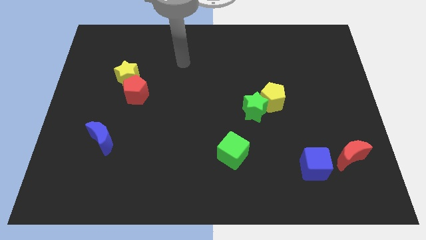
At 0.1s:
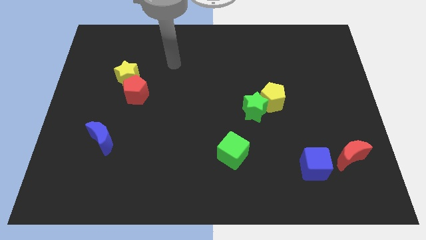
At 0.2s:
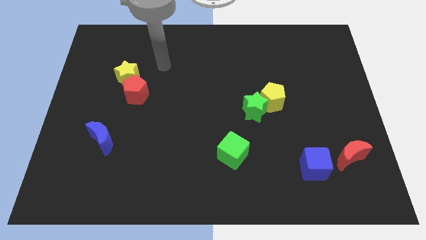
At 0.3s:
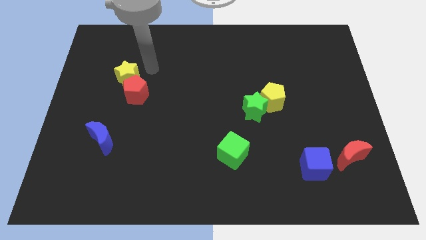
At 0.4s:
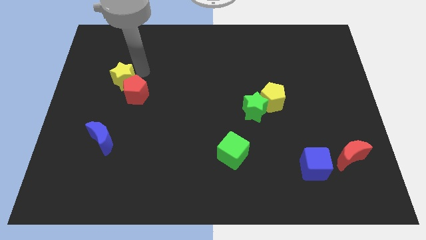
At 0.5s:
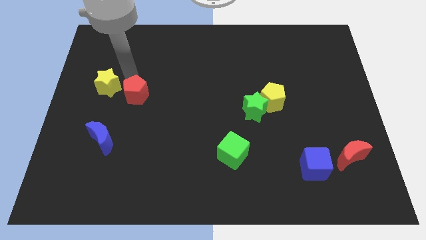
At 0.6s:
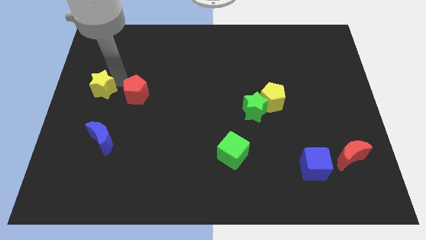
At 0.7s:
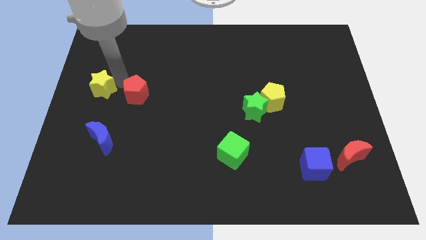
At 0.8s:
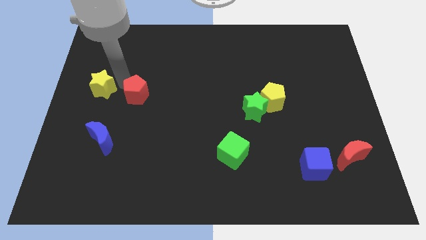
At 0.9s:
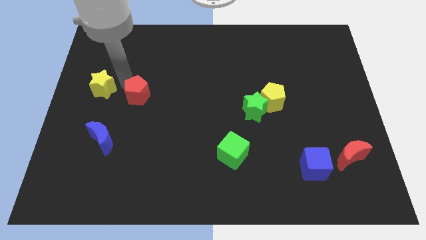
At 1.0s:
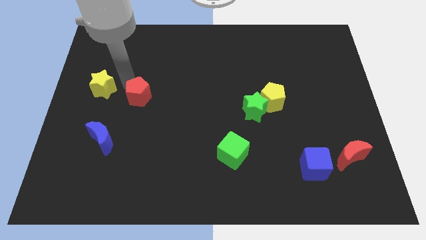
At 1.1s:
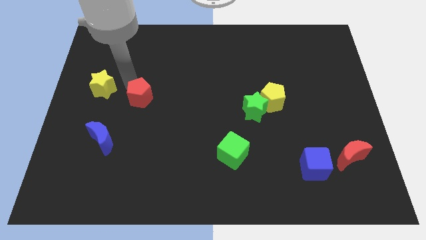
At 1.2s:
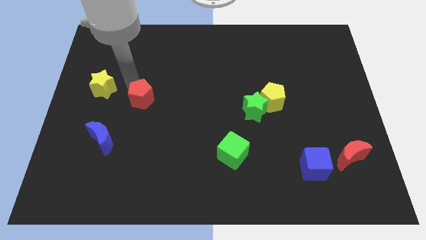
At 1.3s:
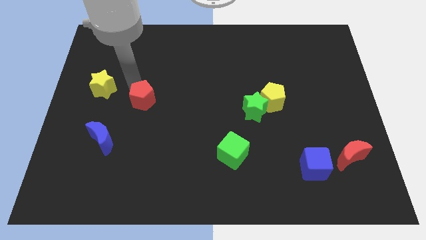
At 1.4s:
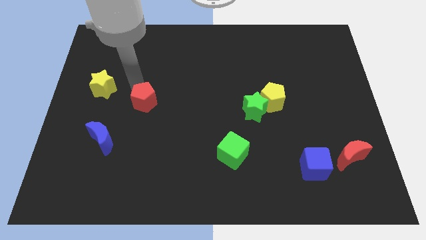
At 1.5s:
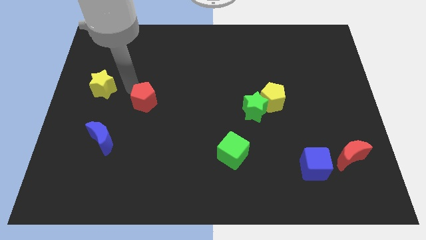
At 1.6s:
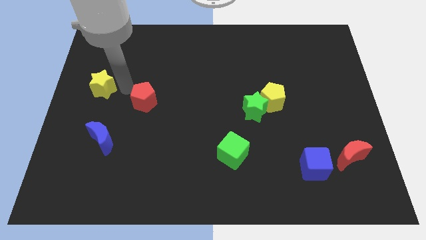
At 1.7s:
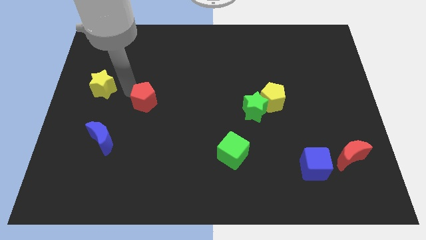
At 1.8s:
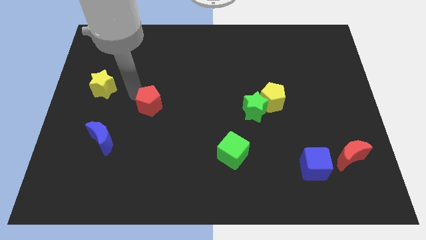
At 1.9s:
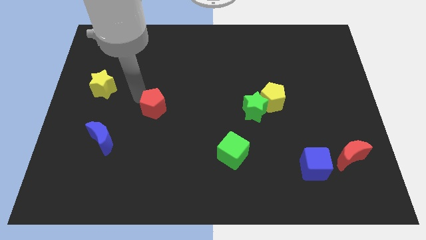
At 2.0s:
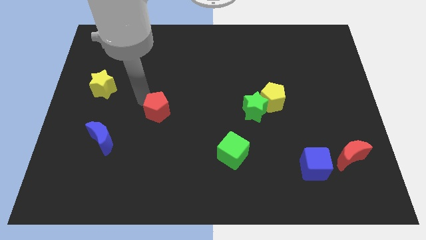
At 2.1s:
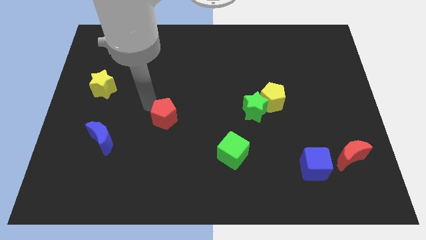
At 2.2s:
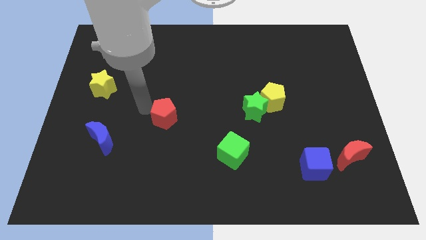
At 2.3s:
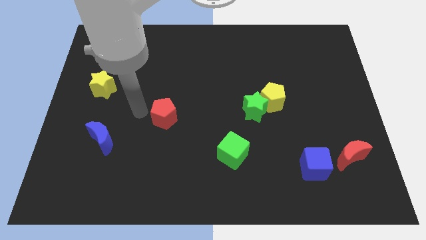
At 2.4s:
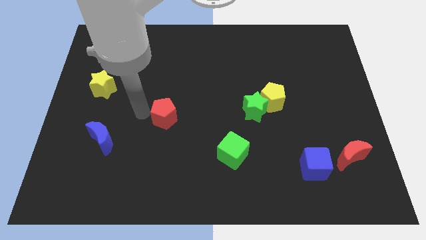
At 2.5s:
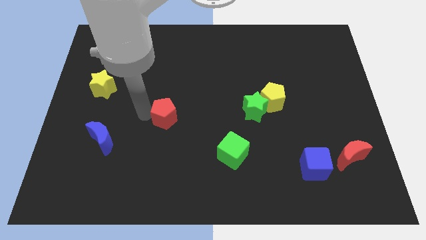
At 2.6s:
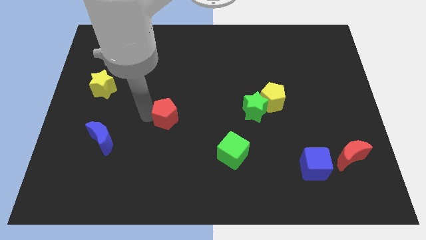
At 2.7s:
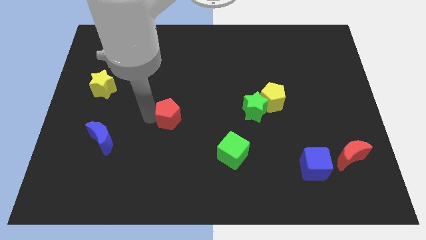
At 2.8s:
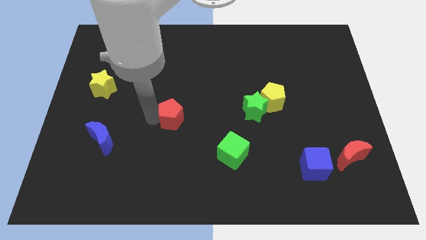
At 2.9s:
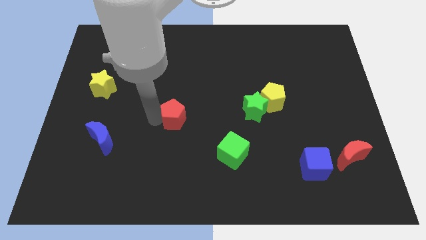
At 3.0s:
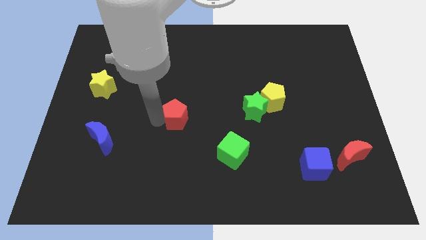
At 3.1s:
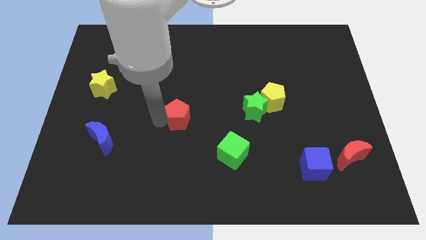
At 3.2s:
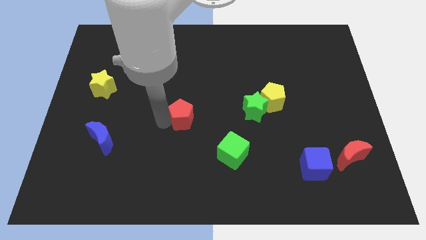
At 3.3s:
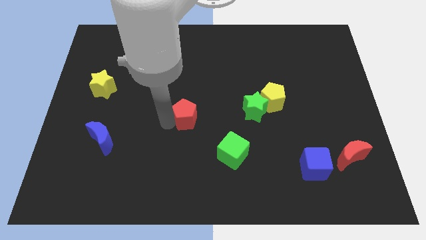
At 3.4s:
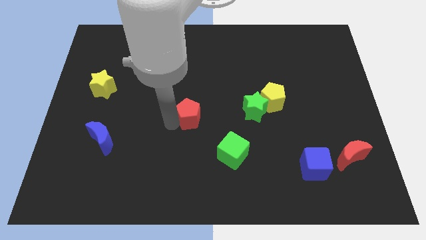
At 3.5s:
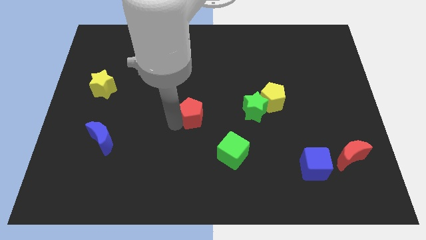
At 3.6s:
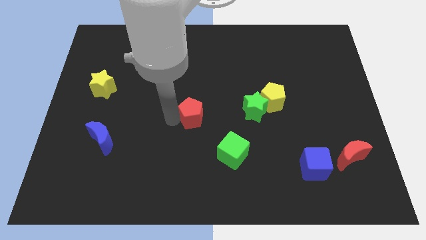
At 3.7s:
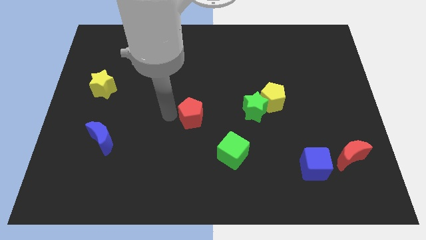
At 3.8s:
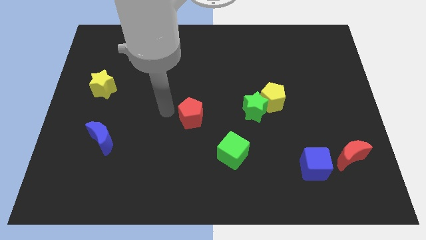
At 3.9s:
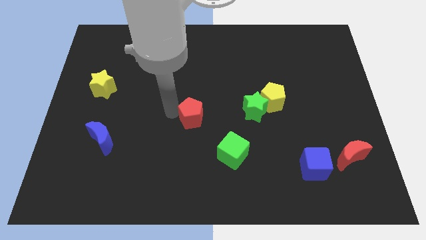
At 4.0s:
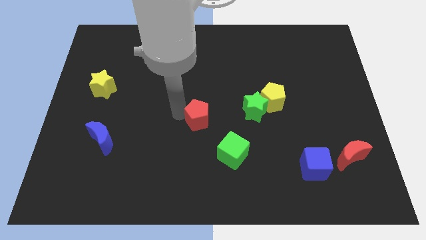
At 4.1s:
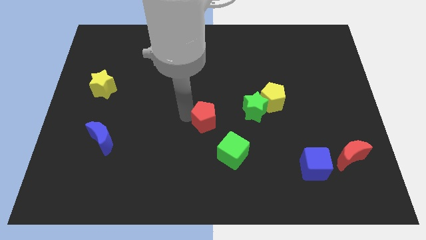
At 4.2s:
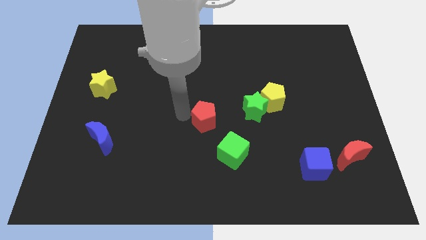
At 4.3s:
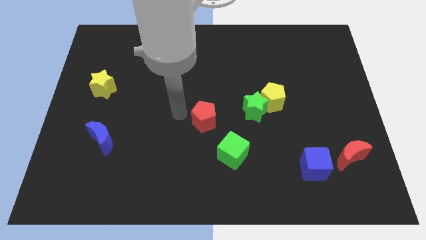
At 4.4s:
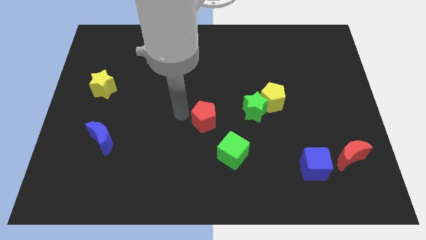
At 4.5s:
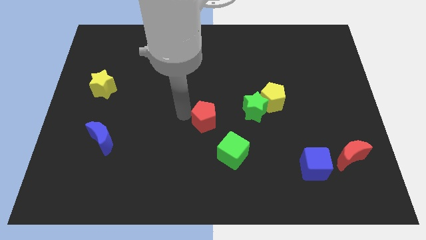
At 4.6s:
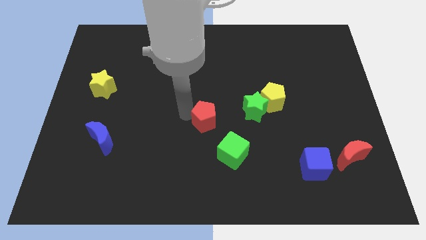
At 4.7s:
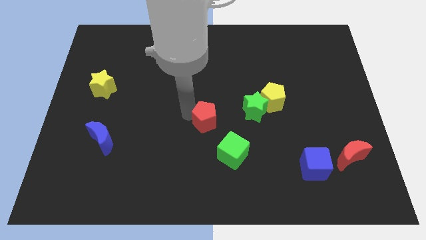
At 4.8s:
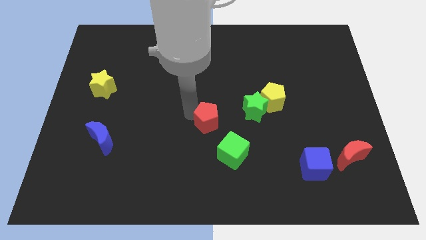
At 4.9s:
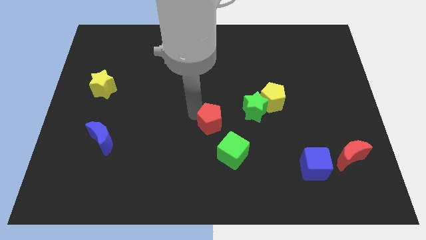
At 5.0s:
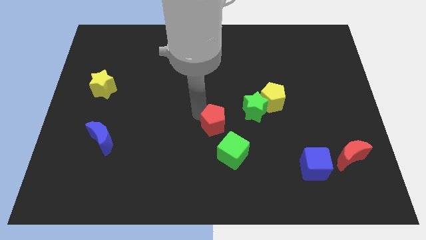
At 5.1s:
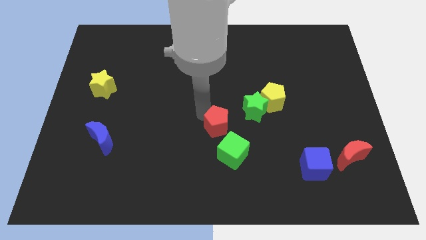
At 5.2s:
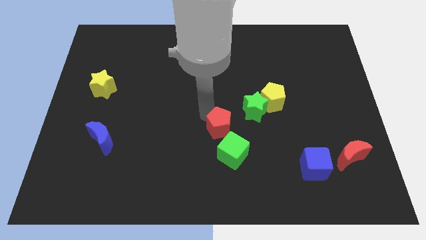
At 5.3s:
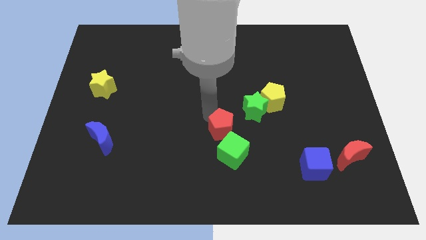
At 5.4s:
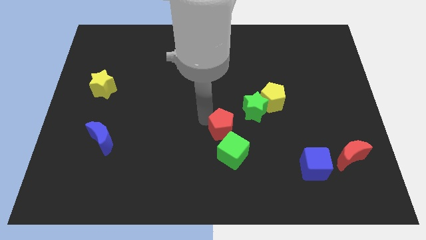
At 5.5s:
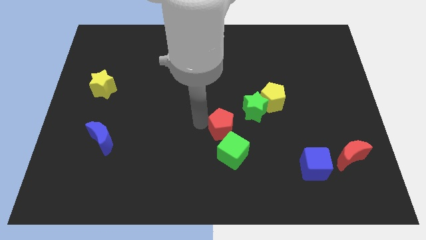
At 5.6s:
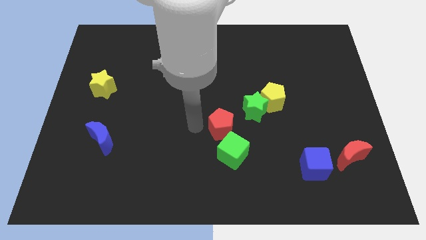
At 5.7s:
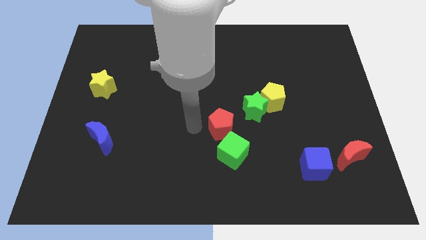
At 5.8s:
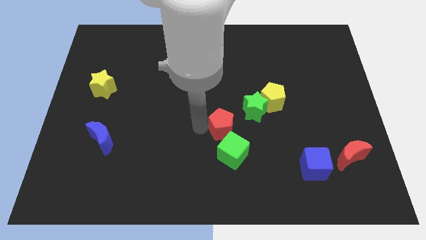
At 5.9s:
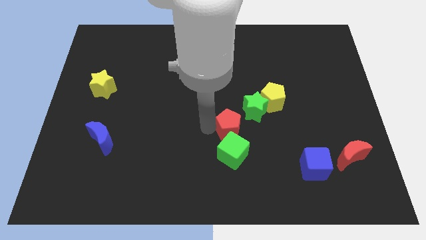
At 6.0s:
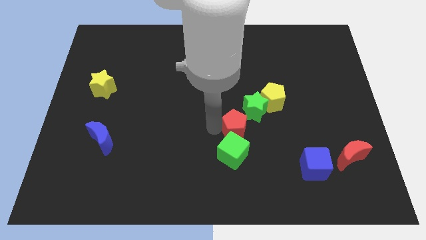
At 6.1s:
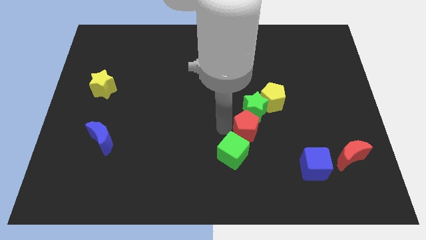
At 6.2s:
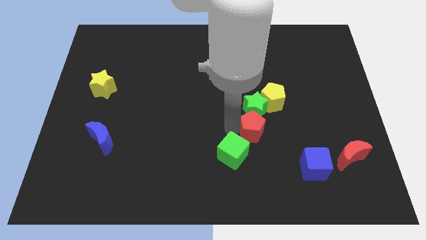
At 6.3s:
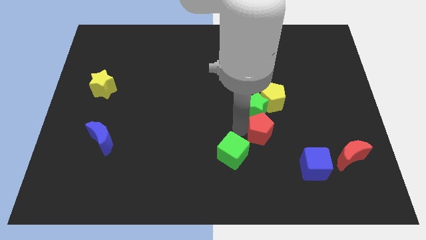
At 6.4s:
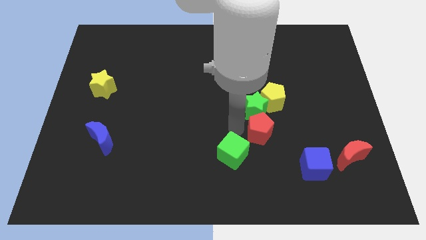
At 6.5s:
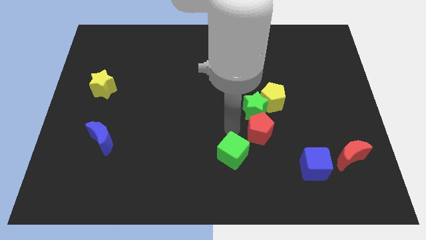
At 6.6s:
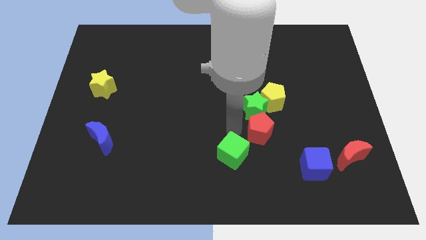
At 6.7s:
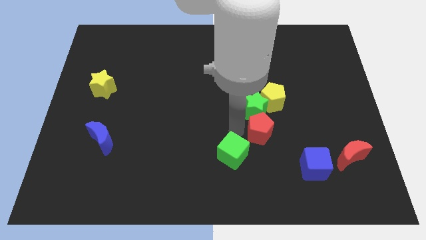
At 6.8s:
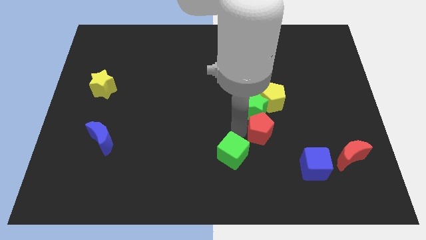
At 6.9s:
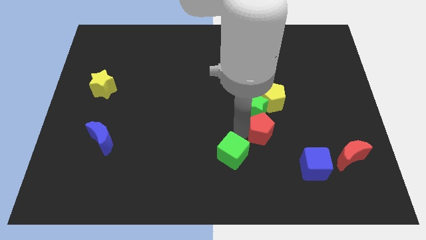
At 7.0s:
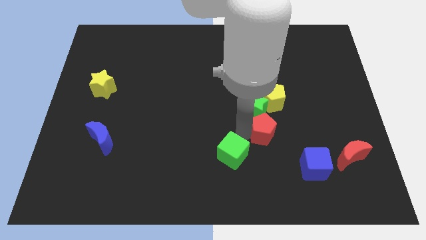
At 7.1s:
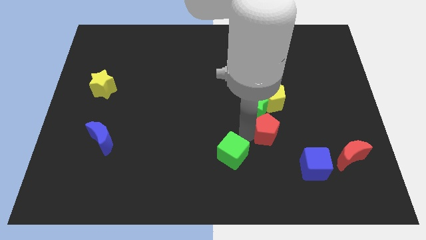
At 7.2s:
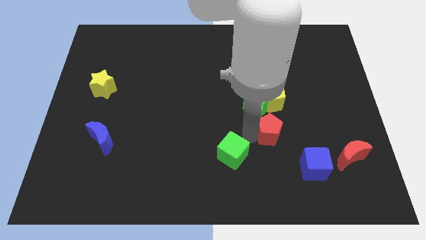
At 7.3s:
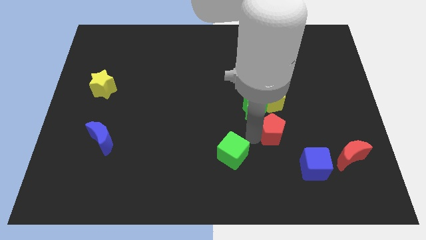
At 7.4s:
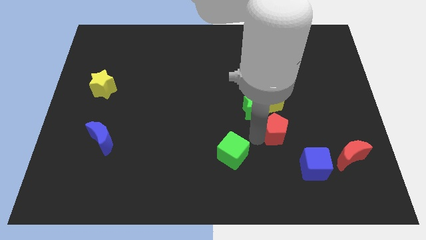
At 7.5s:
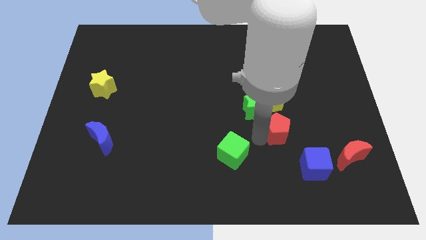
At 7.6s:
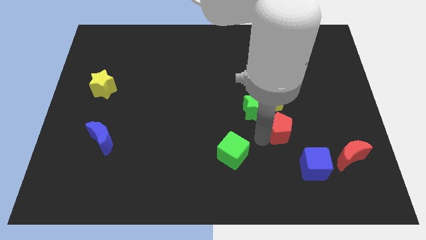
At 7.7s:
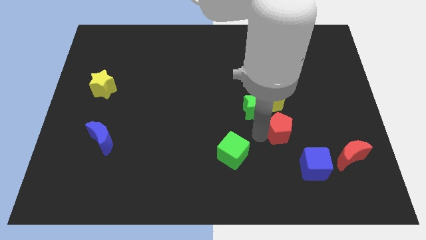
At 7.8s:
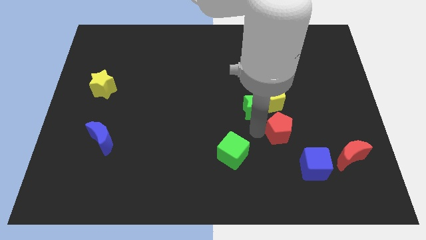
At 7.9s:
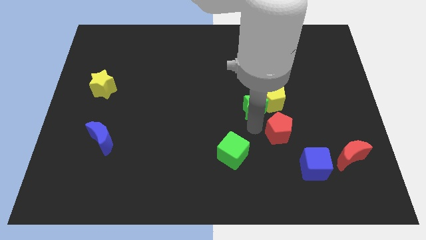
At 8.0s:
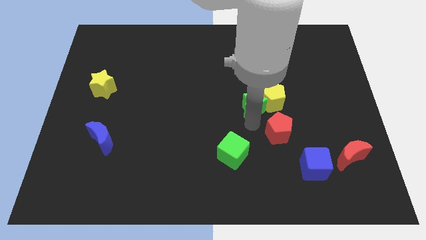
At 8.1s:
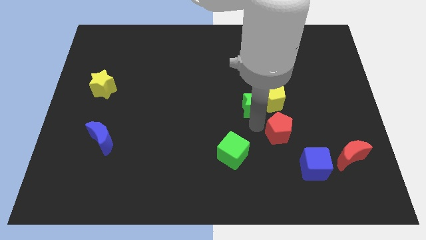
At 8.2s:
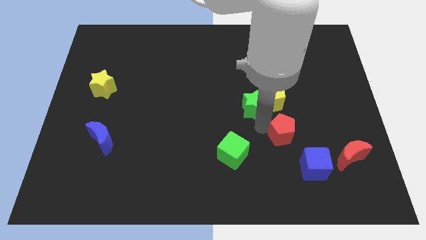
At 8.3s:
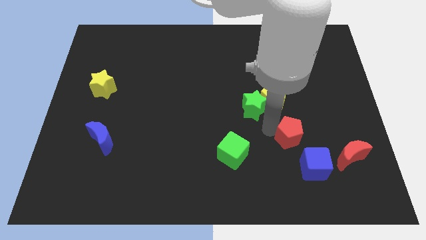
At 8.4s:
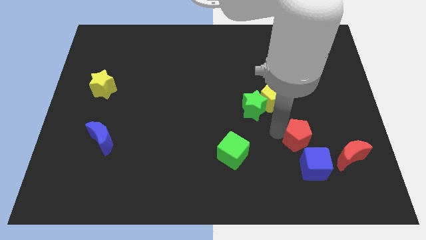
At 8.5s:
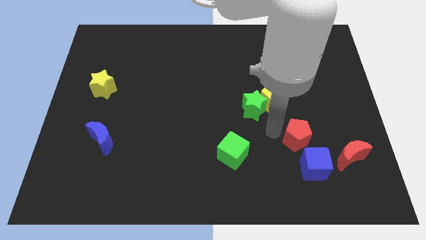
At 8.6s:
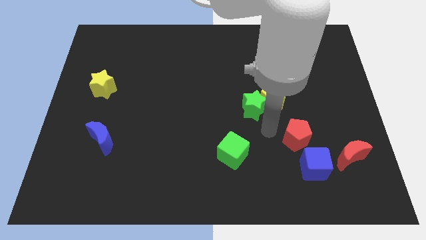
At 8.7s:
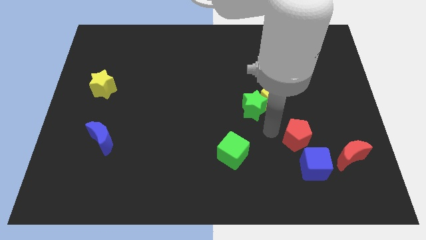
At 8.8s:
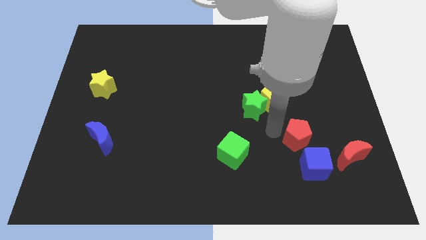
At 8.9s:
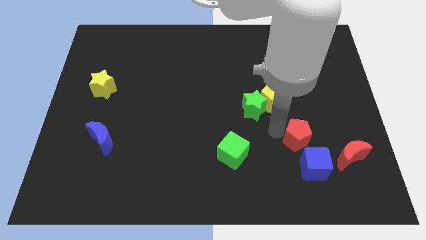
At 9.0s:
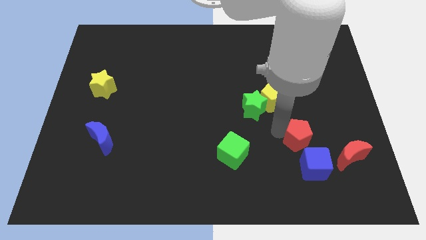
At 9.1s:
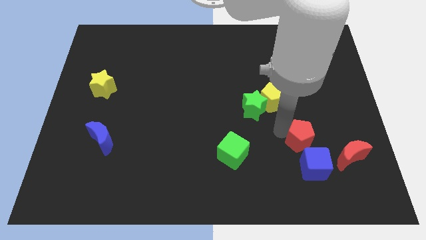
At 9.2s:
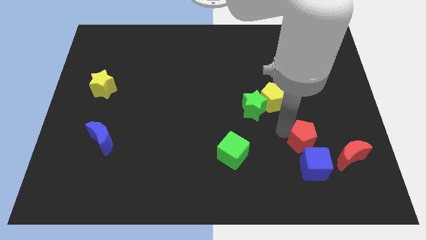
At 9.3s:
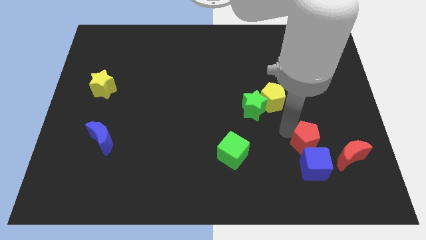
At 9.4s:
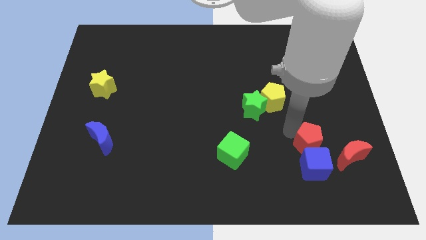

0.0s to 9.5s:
move the red pentagon to the top right of the blue cube
